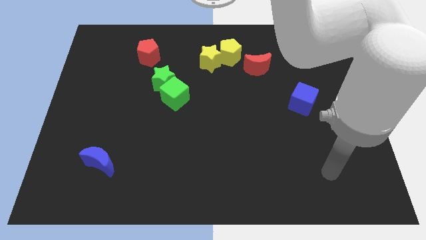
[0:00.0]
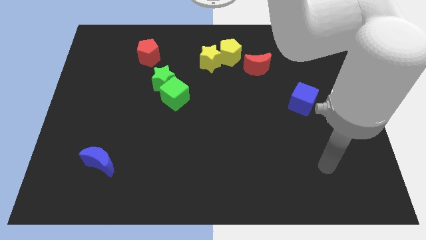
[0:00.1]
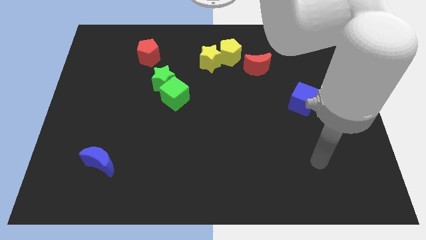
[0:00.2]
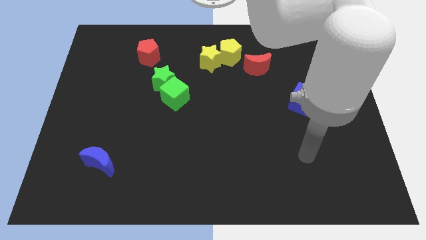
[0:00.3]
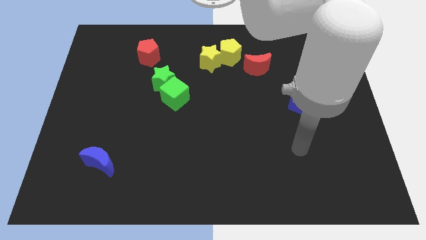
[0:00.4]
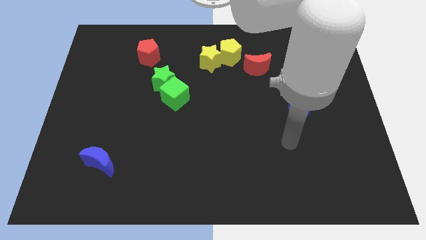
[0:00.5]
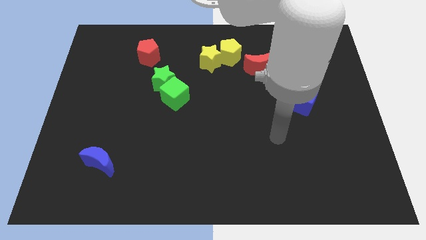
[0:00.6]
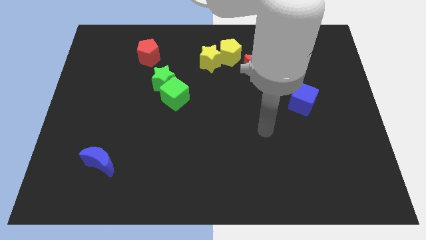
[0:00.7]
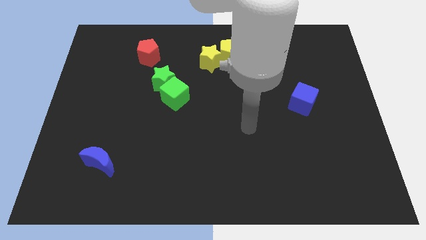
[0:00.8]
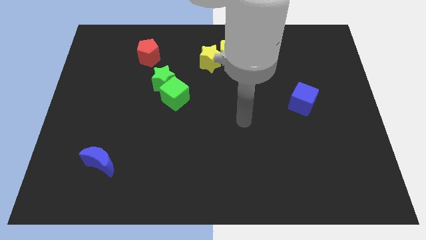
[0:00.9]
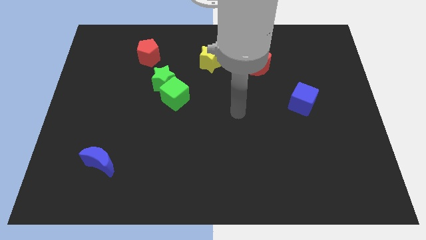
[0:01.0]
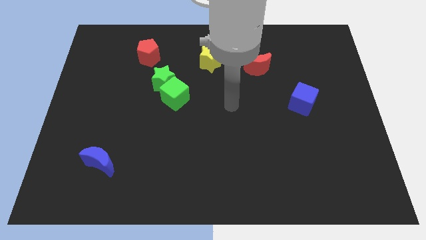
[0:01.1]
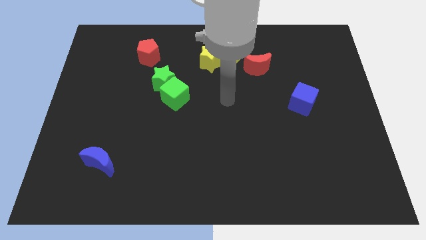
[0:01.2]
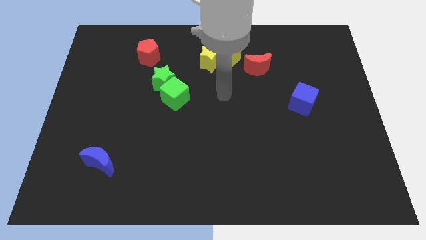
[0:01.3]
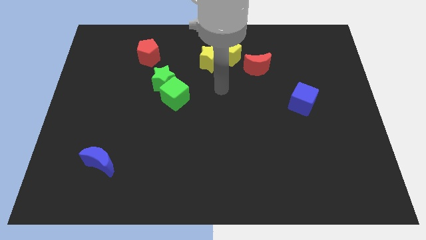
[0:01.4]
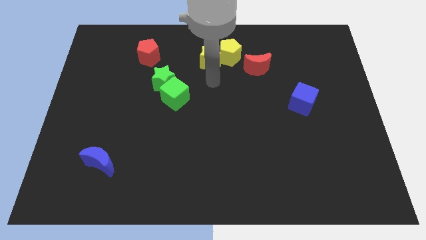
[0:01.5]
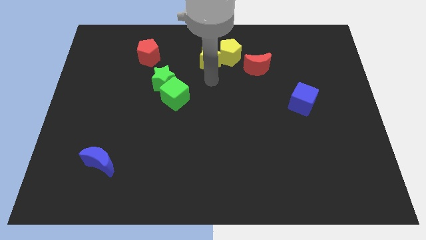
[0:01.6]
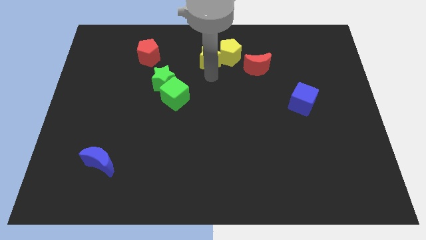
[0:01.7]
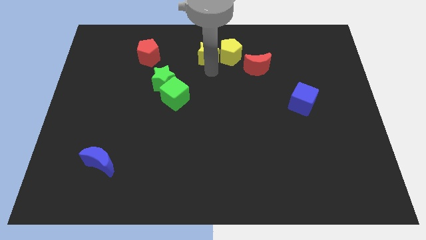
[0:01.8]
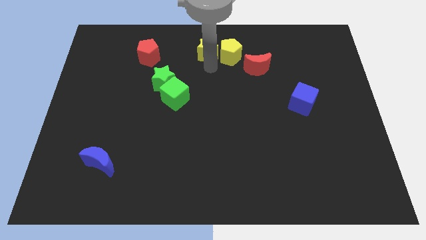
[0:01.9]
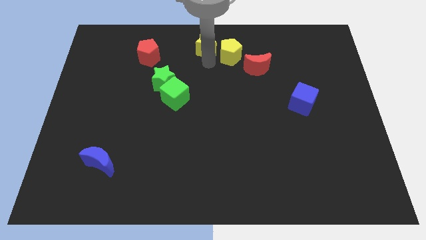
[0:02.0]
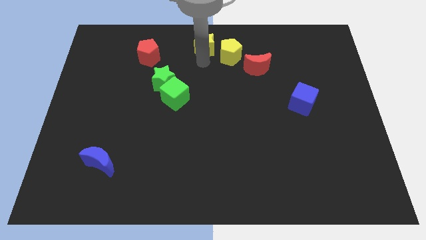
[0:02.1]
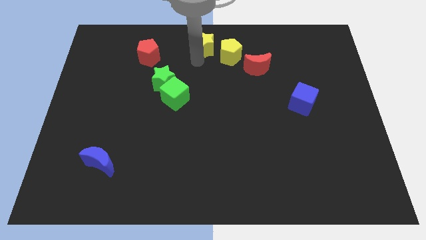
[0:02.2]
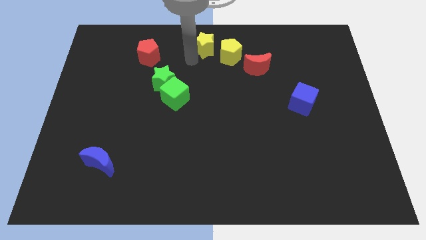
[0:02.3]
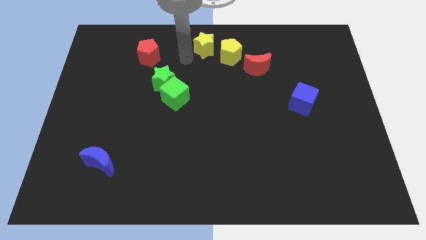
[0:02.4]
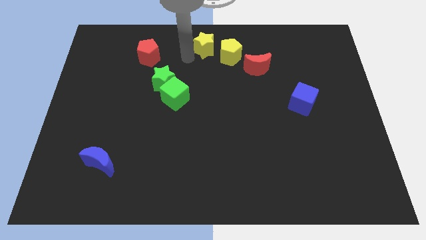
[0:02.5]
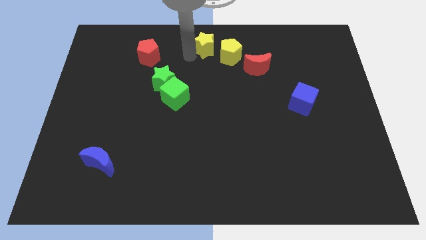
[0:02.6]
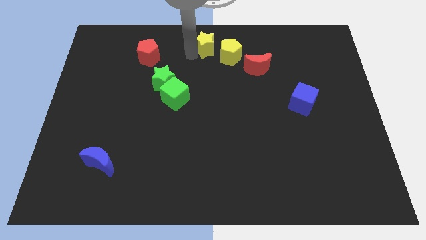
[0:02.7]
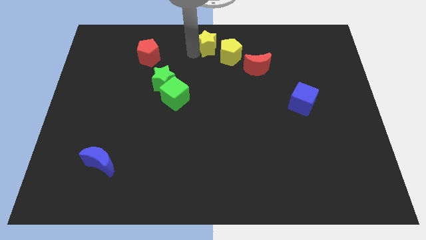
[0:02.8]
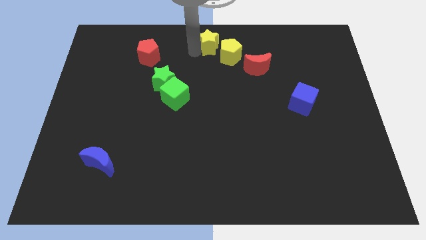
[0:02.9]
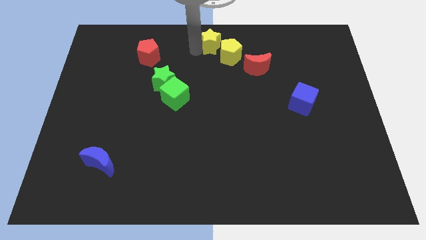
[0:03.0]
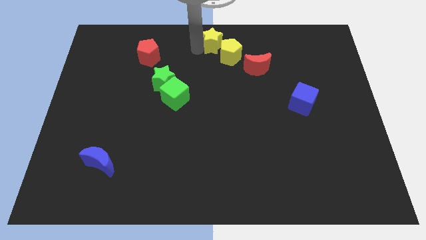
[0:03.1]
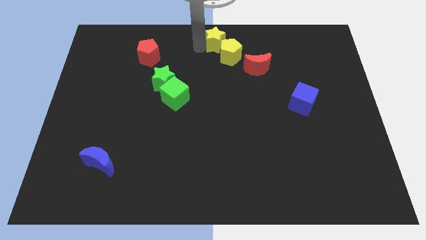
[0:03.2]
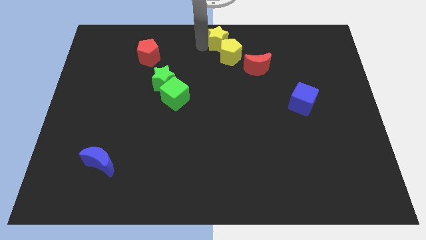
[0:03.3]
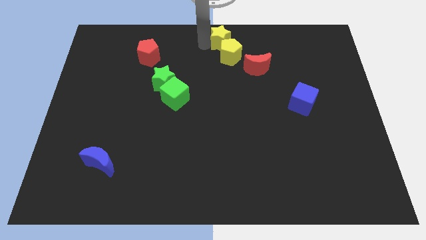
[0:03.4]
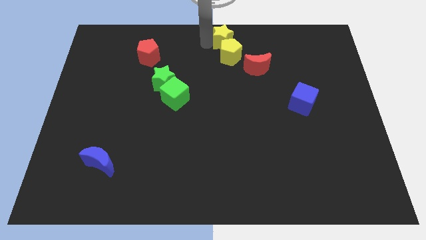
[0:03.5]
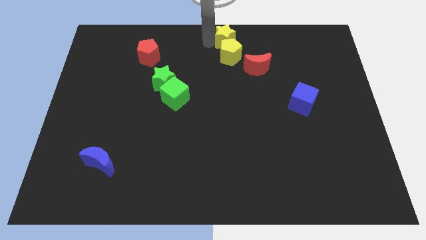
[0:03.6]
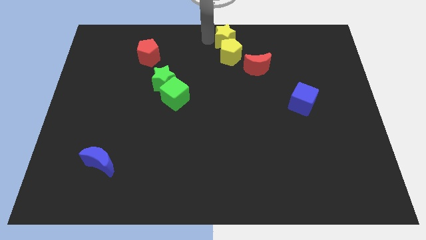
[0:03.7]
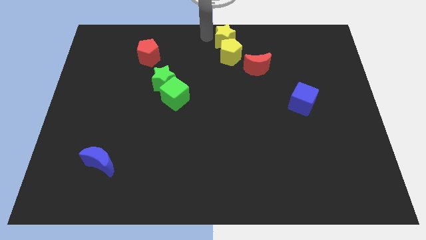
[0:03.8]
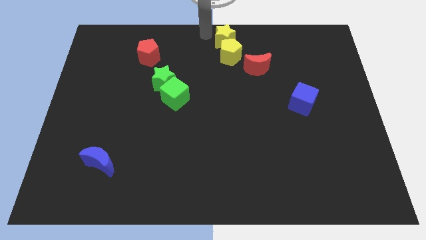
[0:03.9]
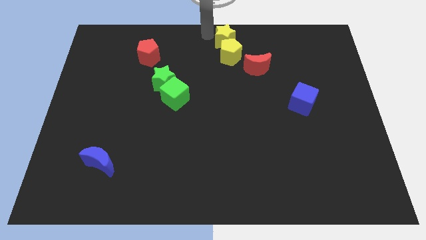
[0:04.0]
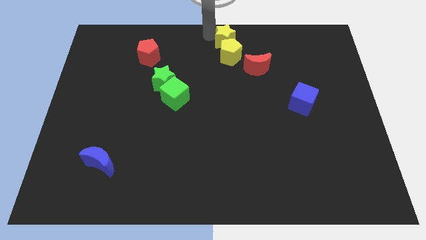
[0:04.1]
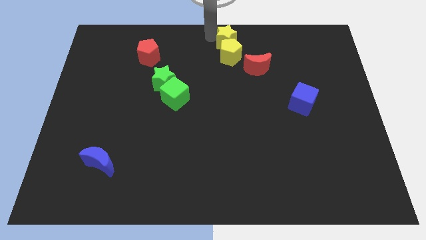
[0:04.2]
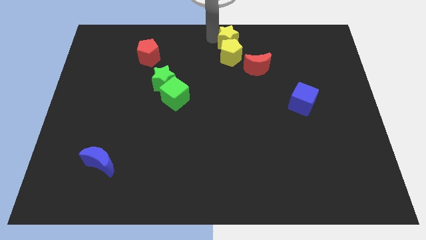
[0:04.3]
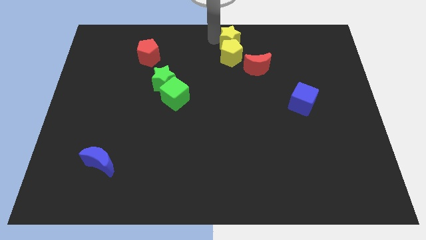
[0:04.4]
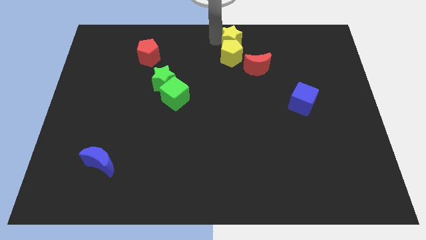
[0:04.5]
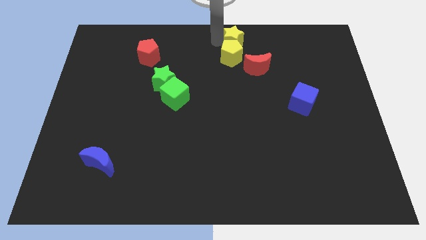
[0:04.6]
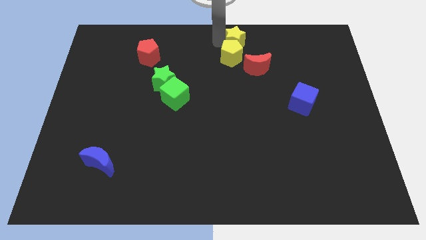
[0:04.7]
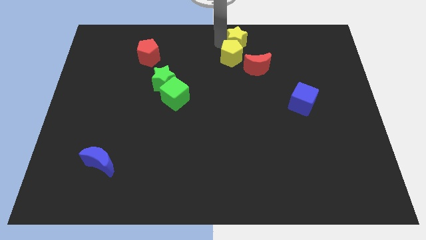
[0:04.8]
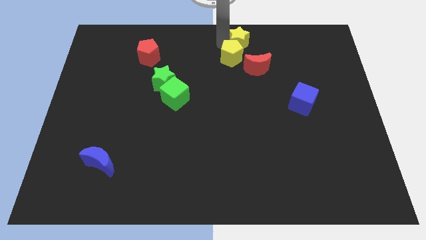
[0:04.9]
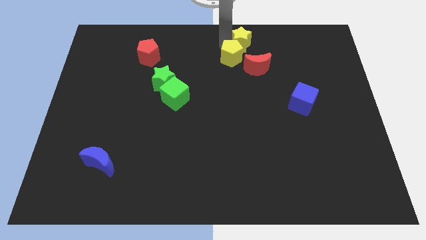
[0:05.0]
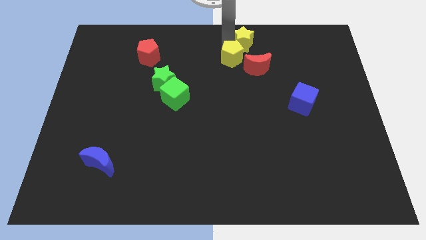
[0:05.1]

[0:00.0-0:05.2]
move the yellow star slightly right

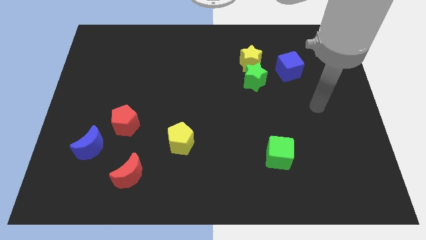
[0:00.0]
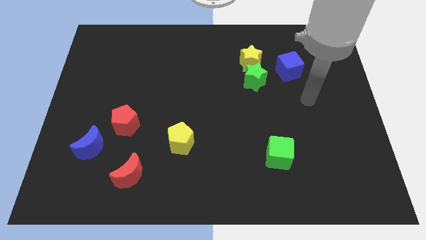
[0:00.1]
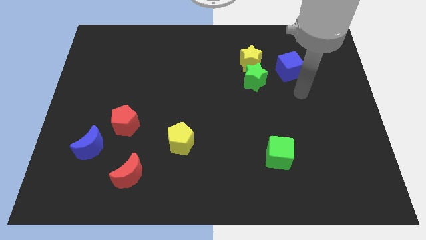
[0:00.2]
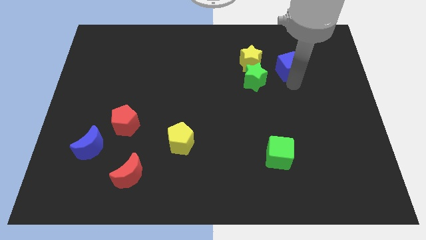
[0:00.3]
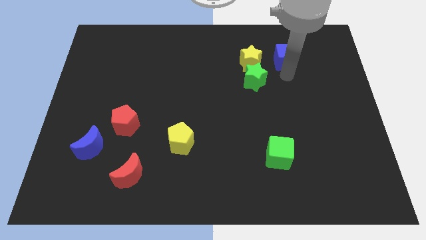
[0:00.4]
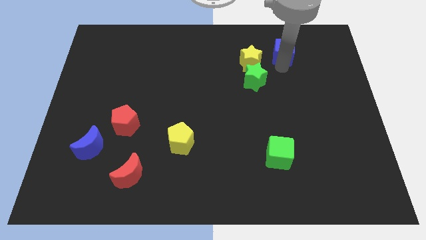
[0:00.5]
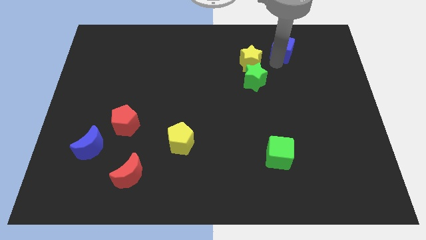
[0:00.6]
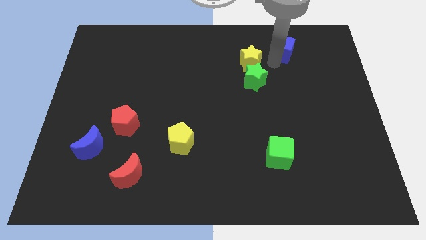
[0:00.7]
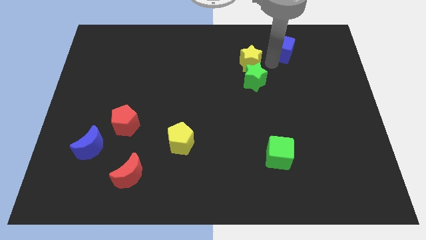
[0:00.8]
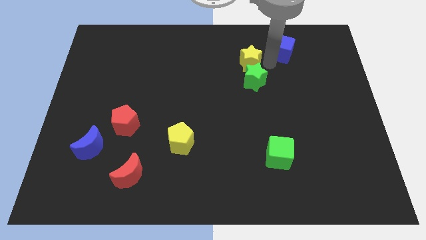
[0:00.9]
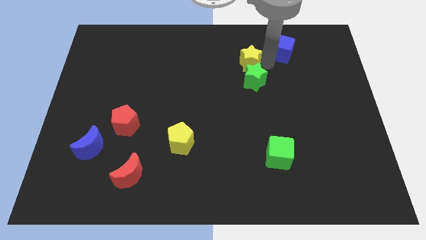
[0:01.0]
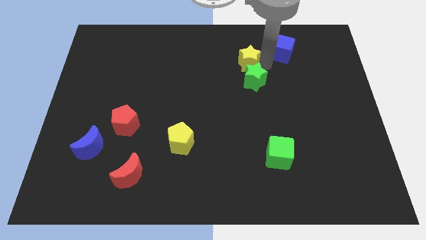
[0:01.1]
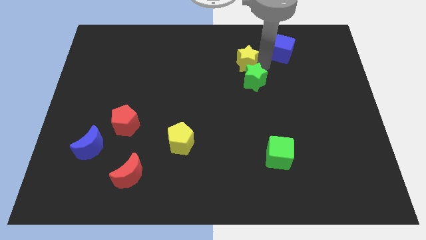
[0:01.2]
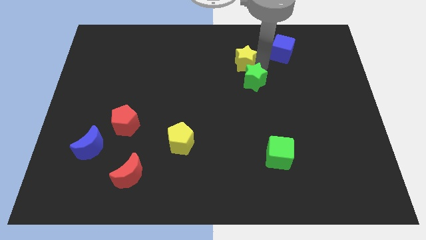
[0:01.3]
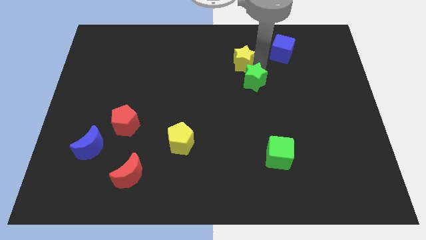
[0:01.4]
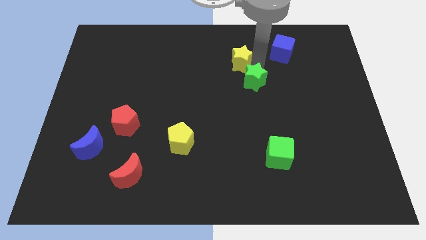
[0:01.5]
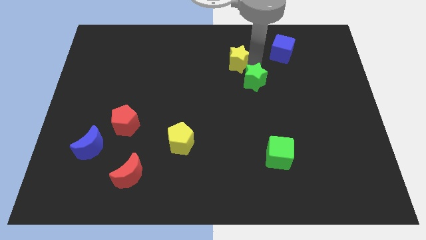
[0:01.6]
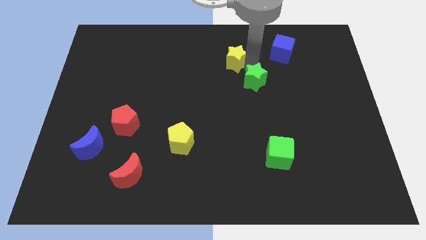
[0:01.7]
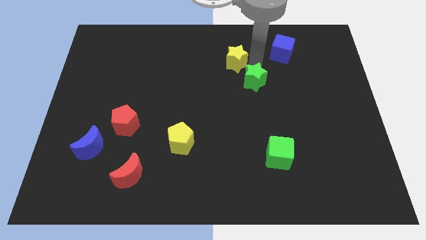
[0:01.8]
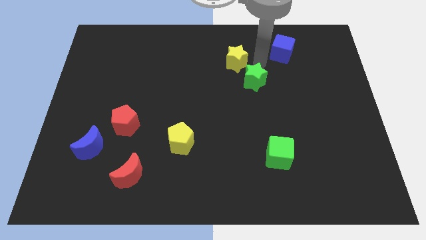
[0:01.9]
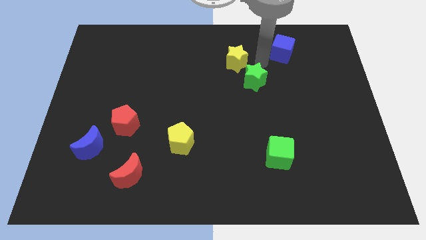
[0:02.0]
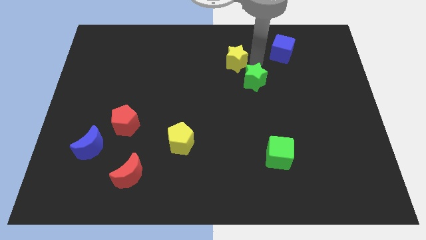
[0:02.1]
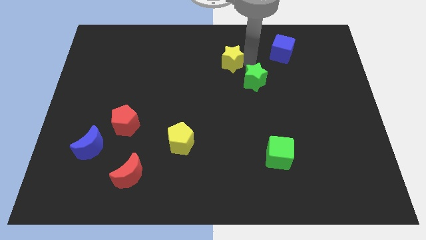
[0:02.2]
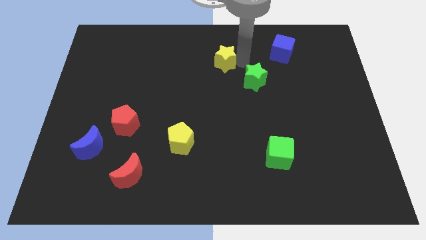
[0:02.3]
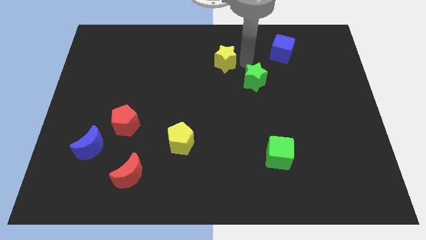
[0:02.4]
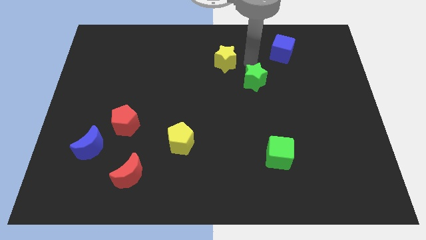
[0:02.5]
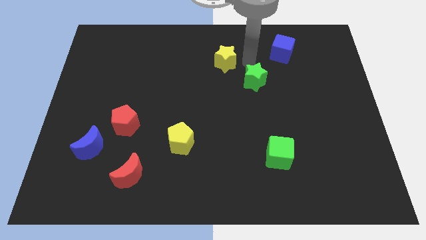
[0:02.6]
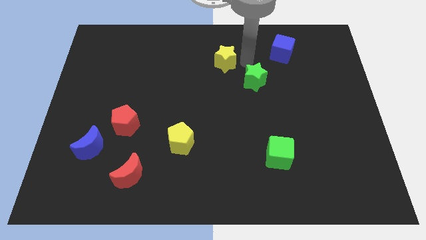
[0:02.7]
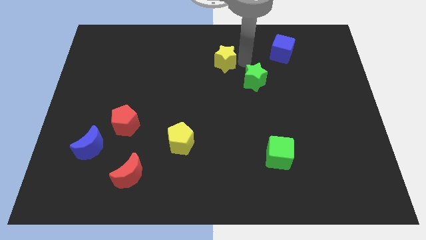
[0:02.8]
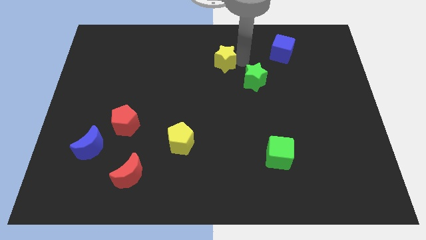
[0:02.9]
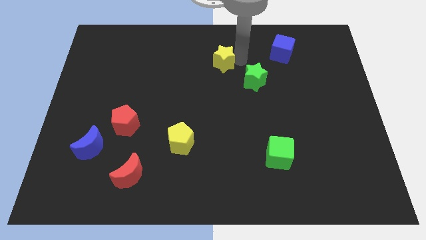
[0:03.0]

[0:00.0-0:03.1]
move the yellow star to the left a bit
